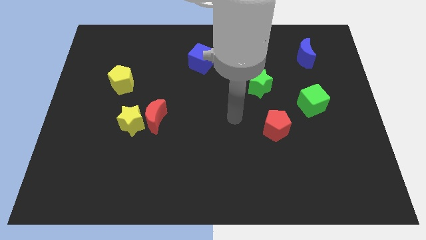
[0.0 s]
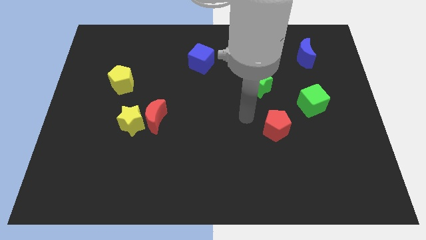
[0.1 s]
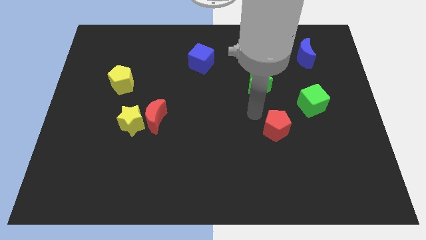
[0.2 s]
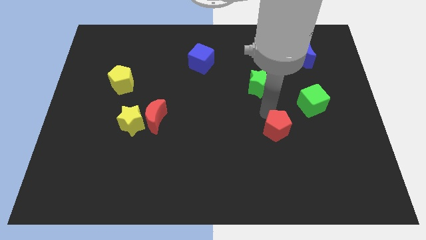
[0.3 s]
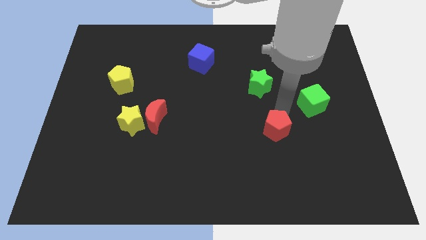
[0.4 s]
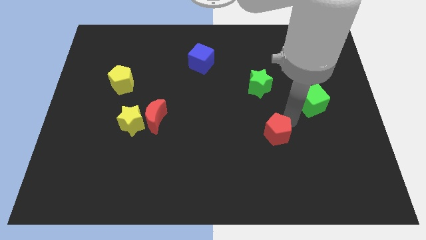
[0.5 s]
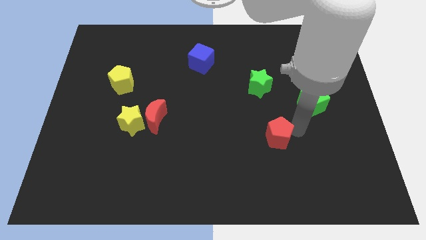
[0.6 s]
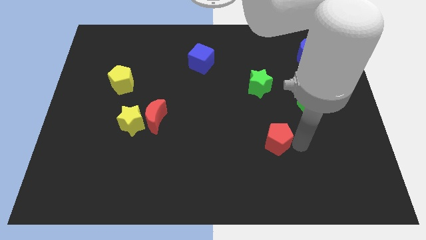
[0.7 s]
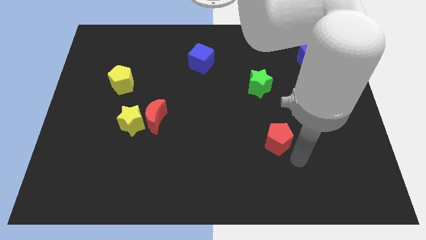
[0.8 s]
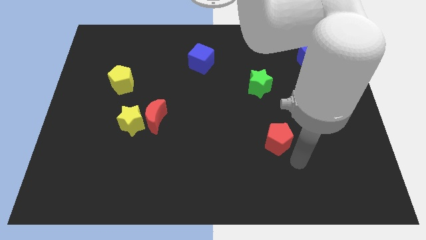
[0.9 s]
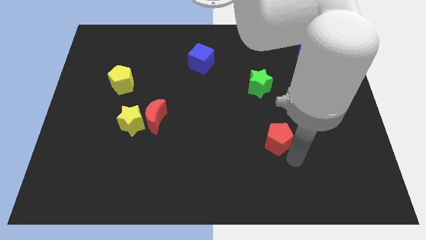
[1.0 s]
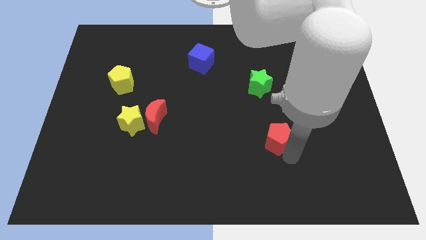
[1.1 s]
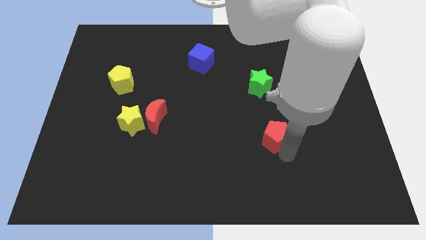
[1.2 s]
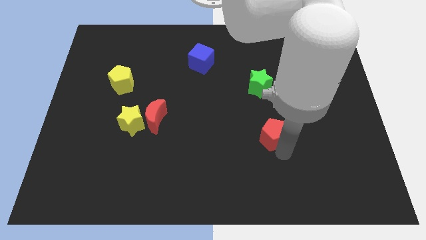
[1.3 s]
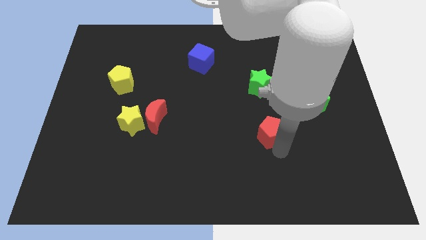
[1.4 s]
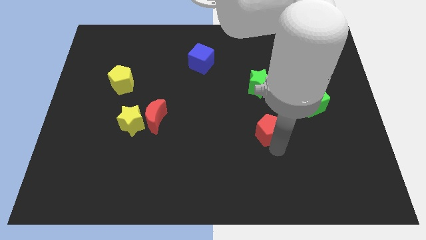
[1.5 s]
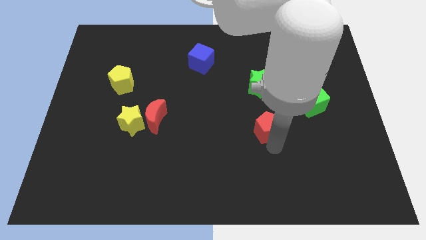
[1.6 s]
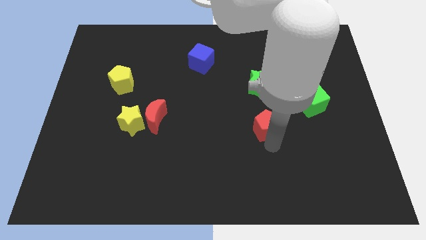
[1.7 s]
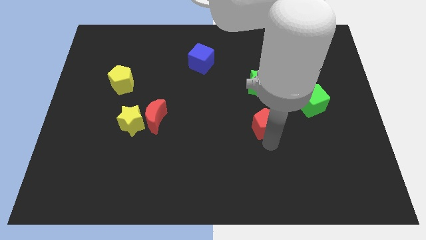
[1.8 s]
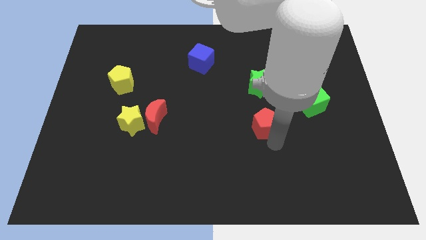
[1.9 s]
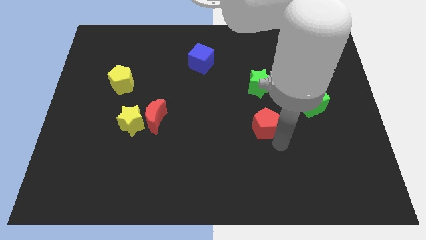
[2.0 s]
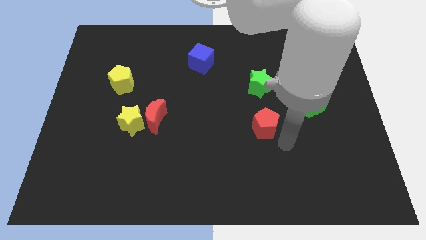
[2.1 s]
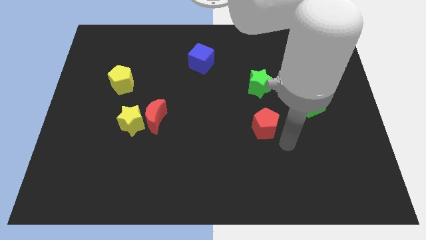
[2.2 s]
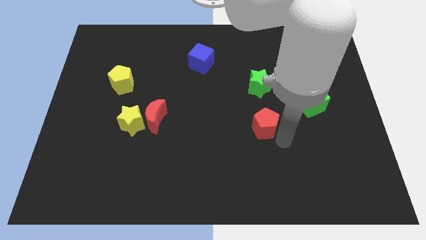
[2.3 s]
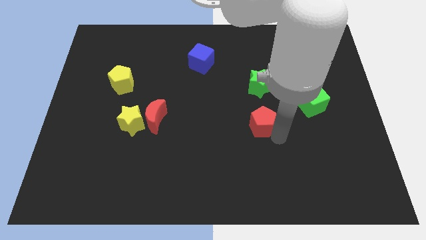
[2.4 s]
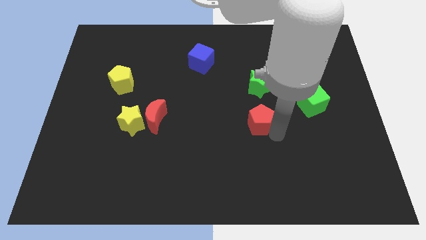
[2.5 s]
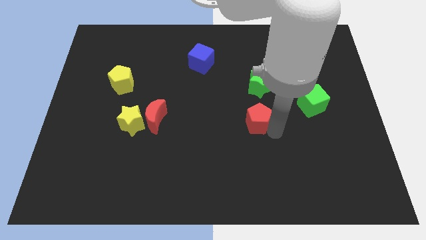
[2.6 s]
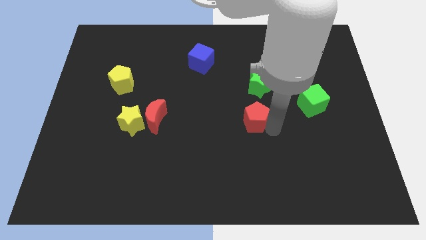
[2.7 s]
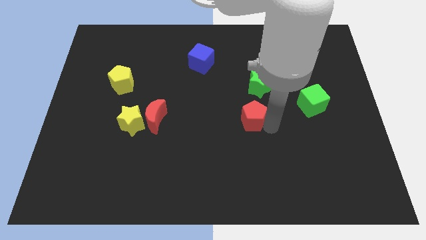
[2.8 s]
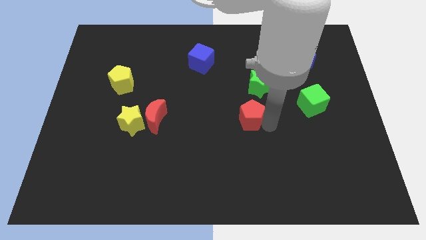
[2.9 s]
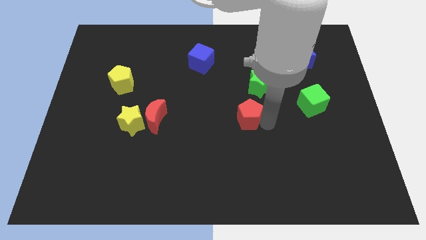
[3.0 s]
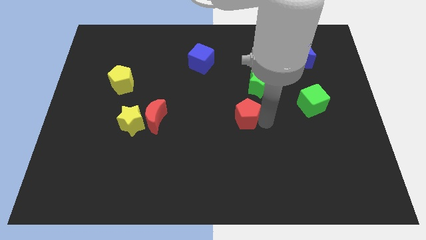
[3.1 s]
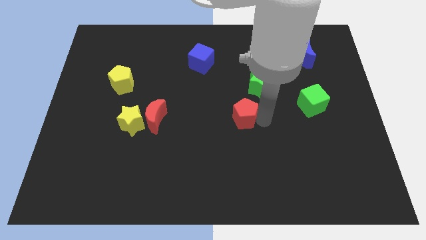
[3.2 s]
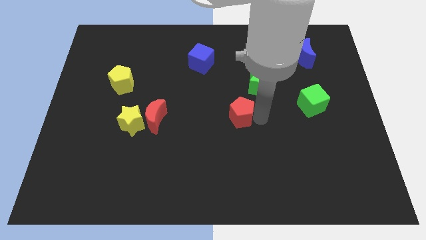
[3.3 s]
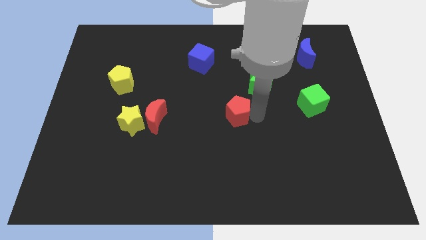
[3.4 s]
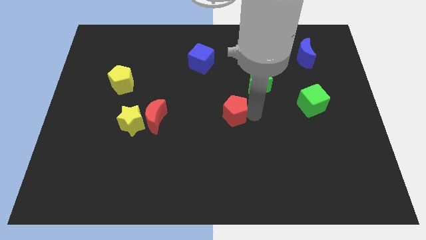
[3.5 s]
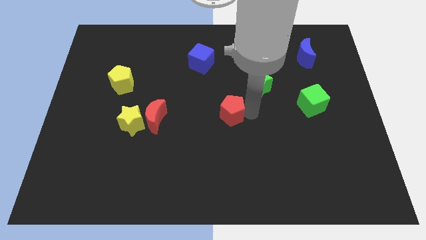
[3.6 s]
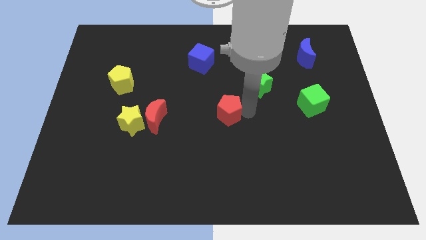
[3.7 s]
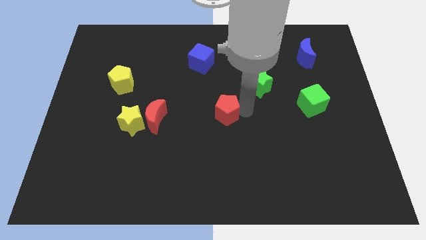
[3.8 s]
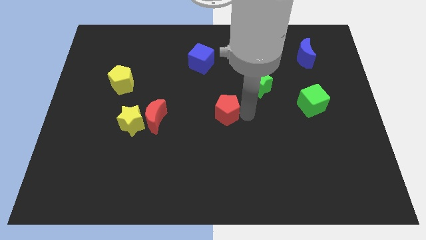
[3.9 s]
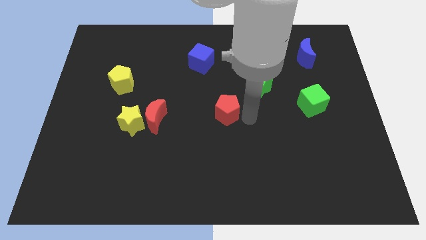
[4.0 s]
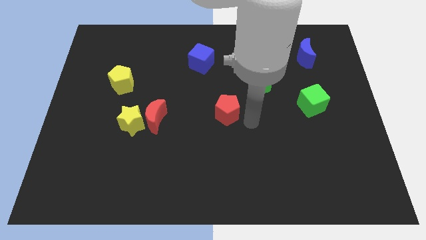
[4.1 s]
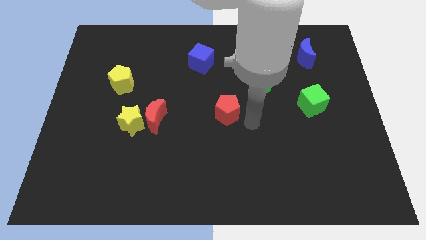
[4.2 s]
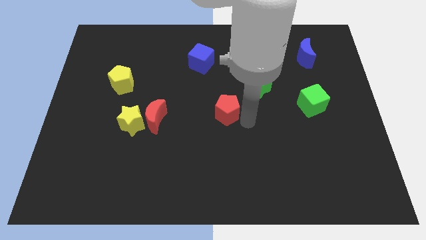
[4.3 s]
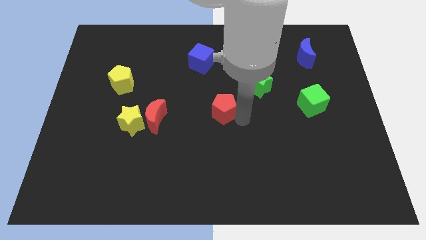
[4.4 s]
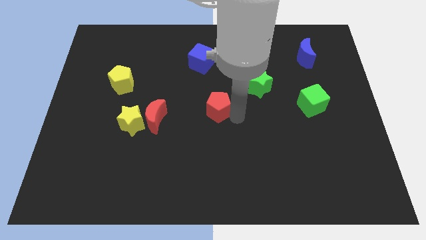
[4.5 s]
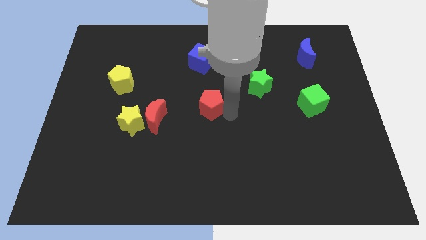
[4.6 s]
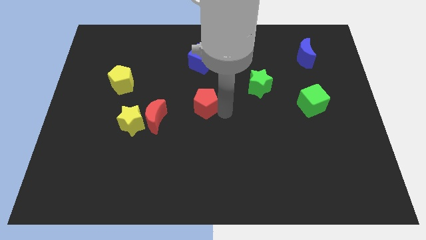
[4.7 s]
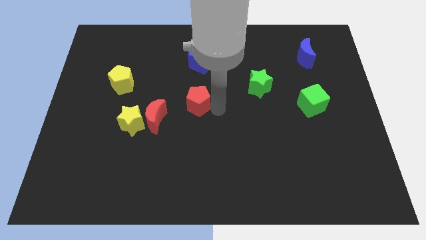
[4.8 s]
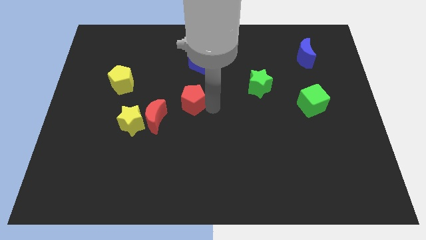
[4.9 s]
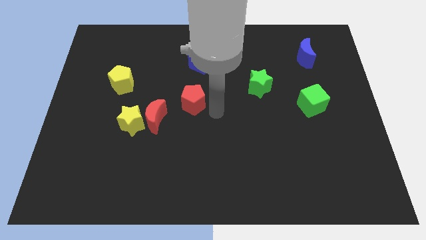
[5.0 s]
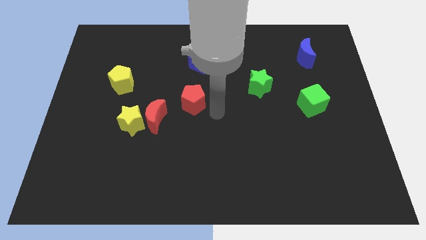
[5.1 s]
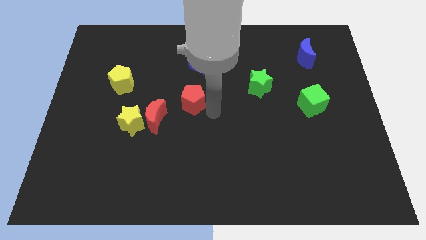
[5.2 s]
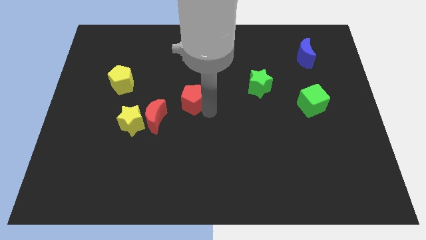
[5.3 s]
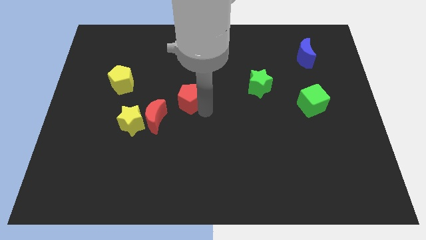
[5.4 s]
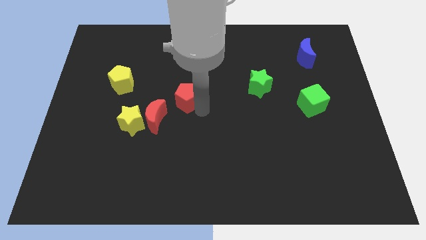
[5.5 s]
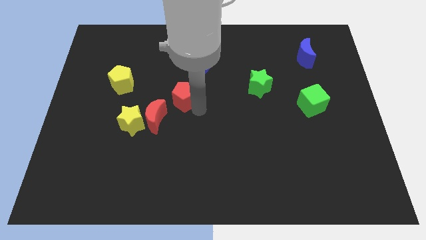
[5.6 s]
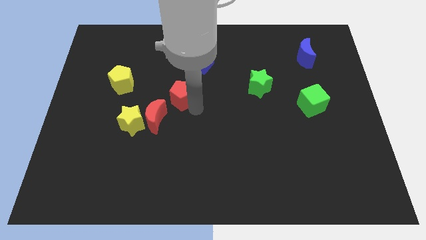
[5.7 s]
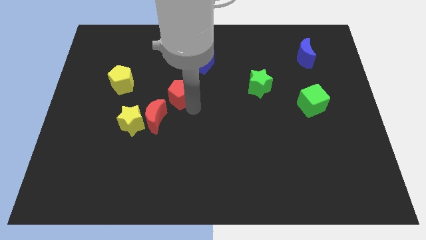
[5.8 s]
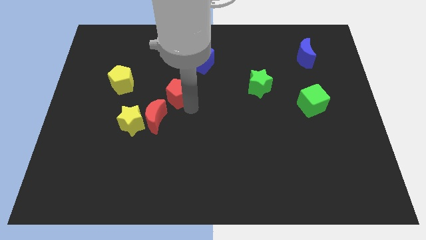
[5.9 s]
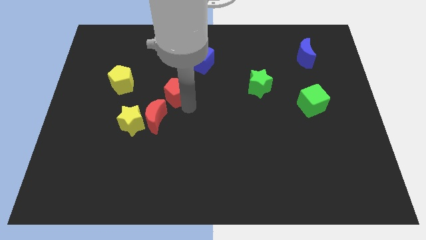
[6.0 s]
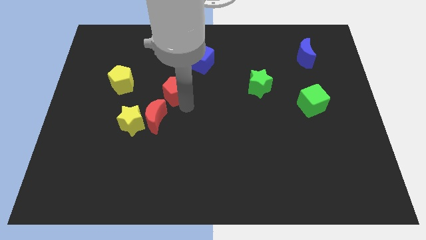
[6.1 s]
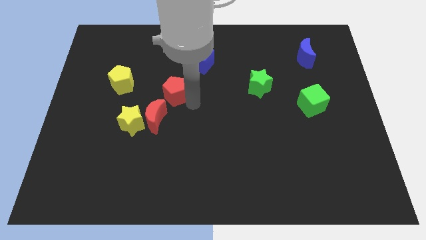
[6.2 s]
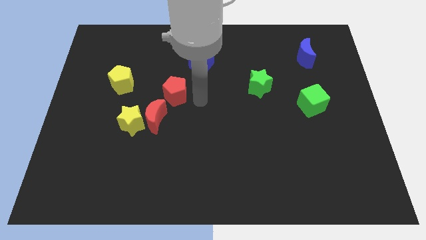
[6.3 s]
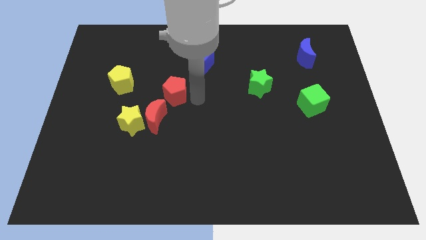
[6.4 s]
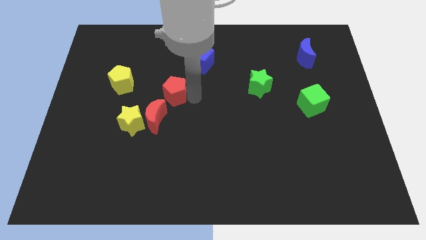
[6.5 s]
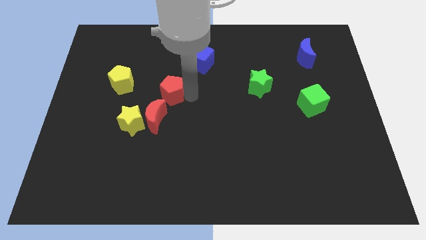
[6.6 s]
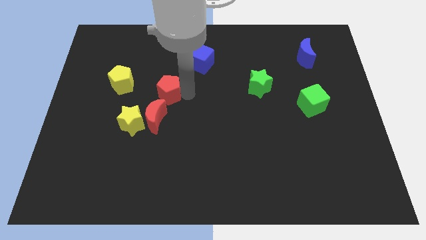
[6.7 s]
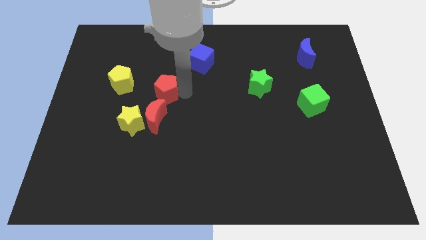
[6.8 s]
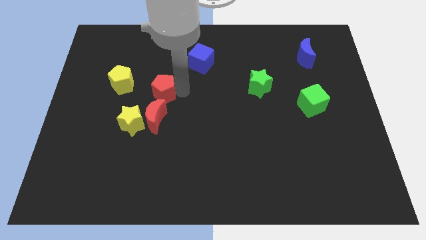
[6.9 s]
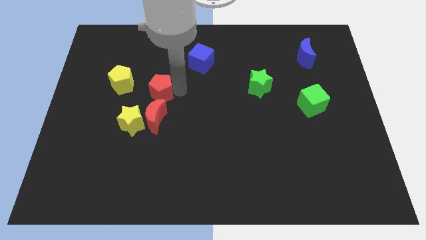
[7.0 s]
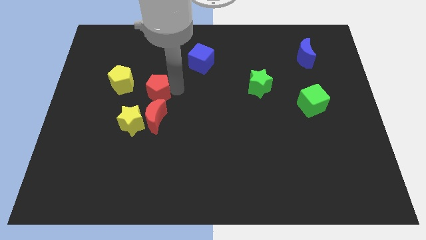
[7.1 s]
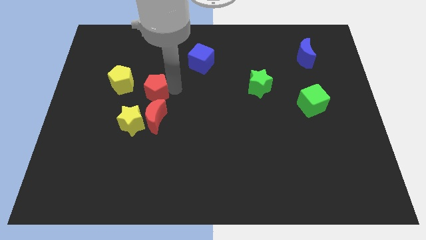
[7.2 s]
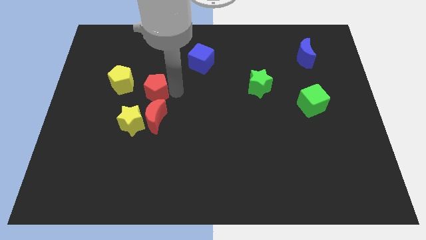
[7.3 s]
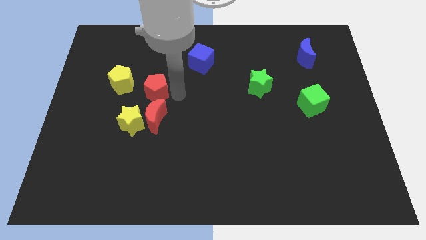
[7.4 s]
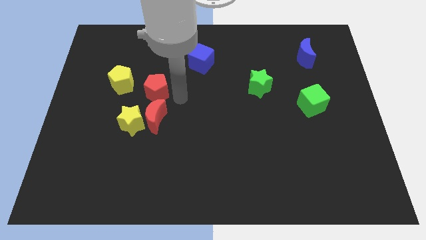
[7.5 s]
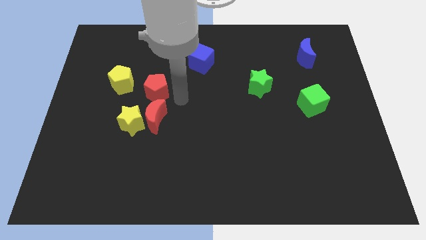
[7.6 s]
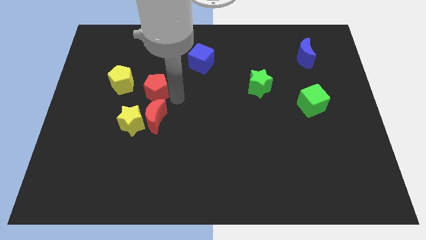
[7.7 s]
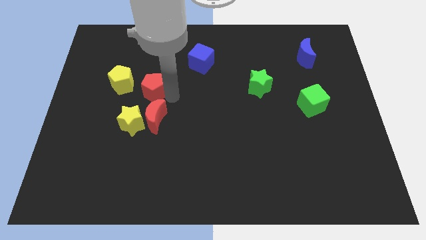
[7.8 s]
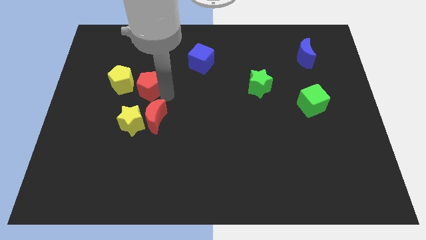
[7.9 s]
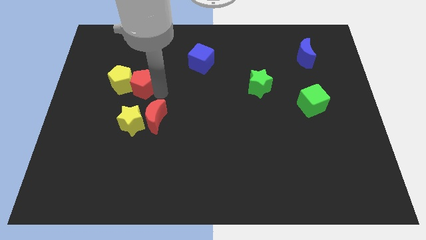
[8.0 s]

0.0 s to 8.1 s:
move the red pentagon to the yellow pentagon

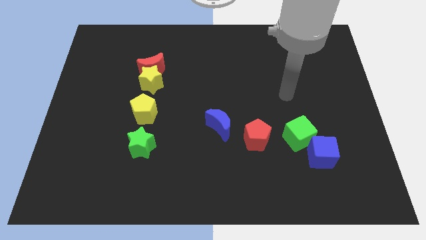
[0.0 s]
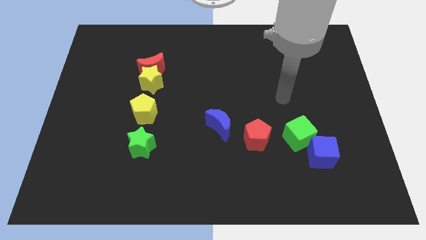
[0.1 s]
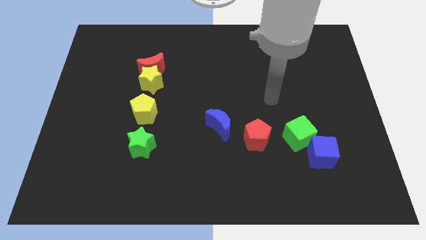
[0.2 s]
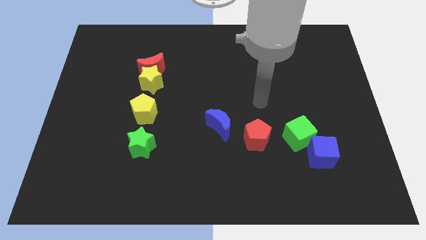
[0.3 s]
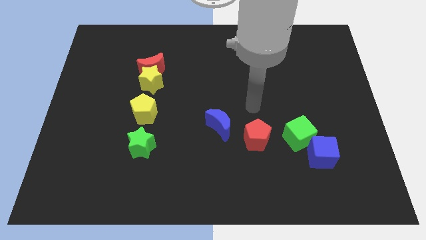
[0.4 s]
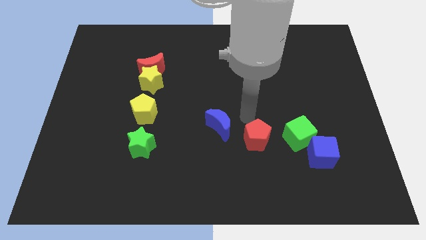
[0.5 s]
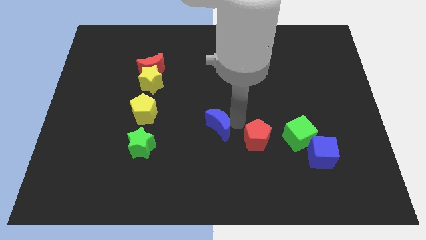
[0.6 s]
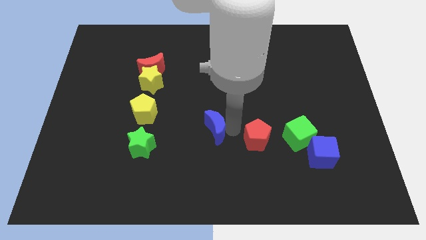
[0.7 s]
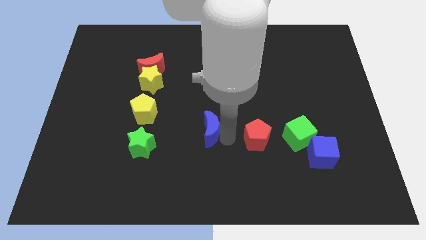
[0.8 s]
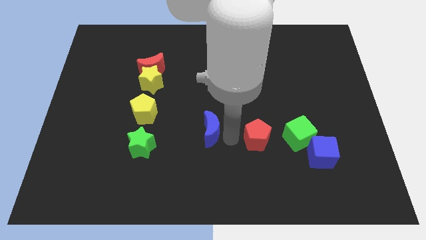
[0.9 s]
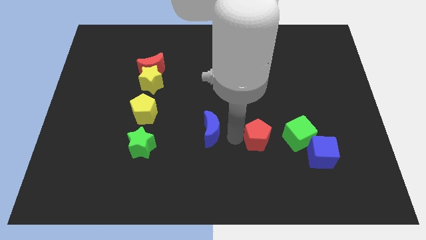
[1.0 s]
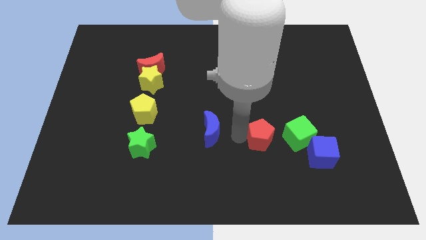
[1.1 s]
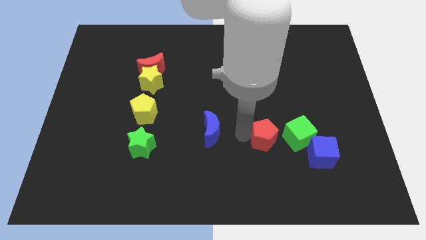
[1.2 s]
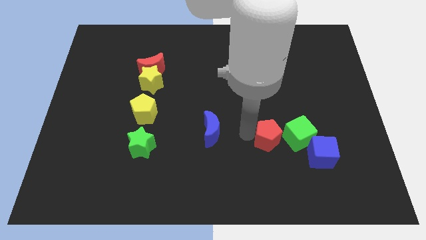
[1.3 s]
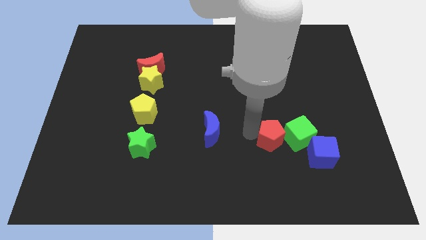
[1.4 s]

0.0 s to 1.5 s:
put the red pentagon close to the green cube
